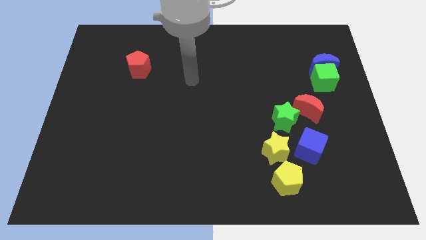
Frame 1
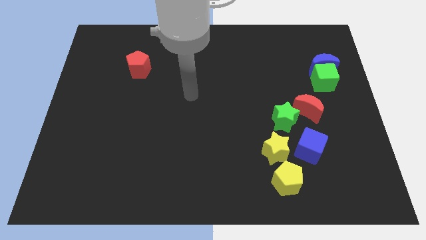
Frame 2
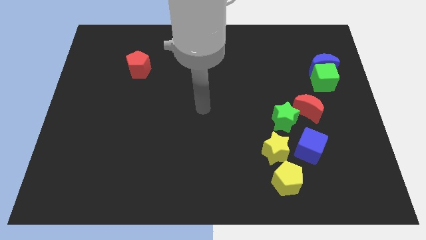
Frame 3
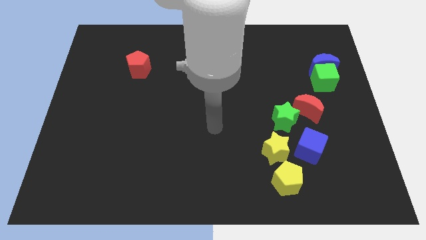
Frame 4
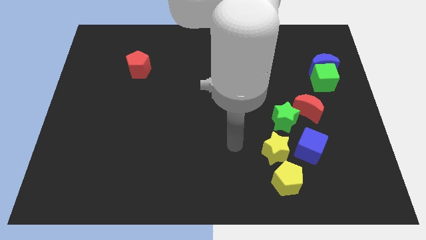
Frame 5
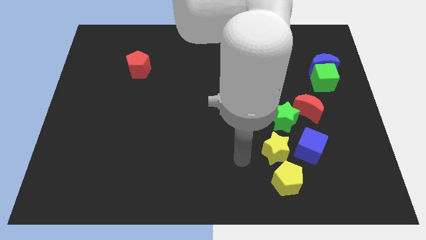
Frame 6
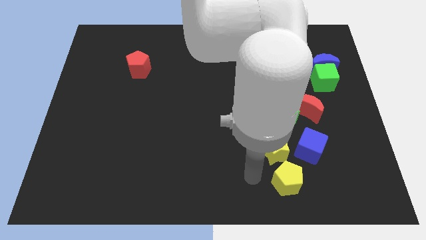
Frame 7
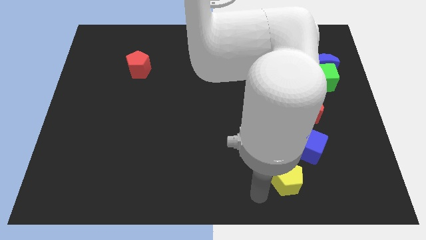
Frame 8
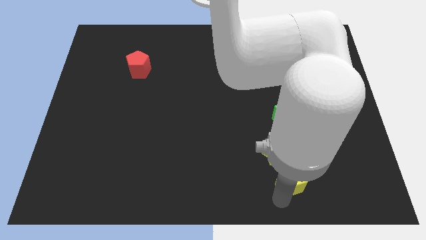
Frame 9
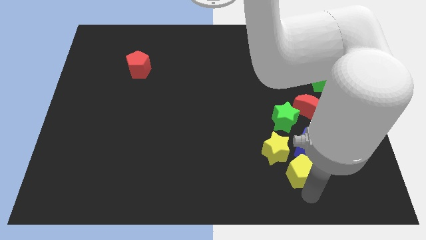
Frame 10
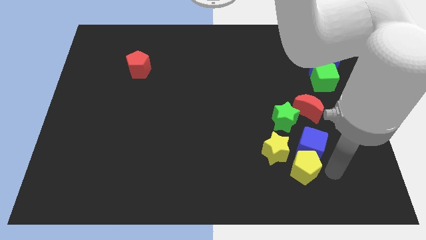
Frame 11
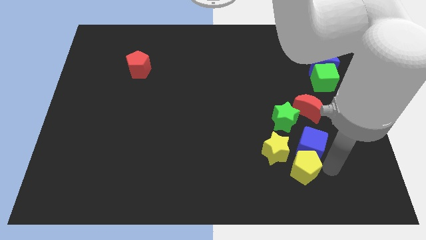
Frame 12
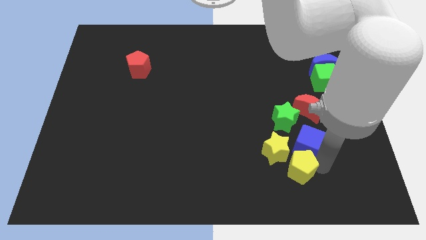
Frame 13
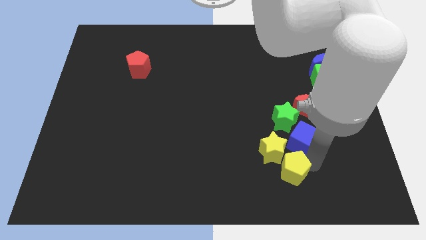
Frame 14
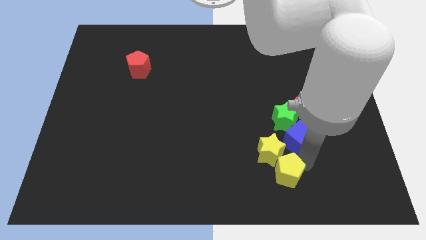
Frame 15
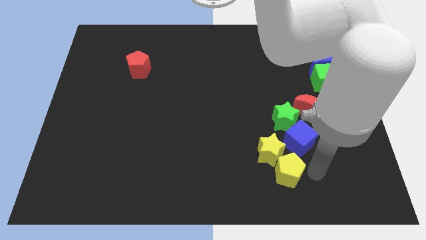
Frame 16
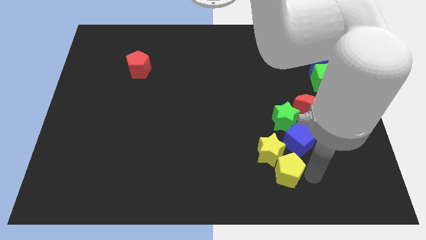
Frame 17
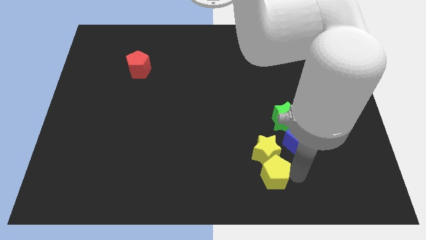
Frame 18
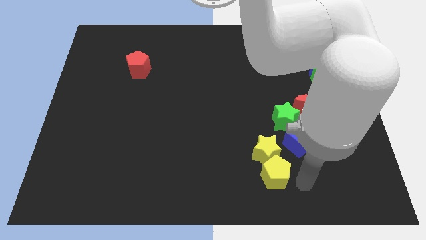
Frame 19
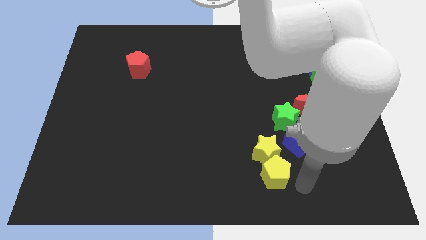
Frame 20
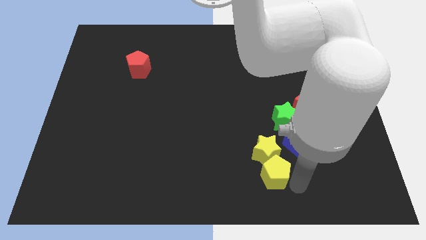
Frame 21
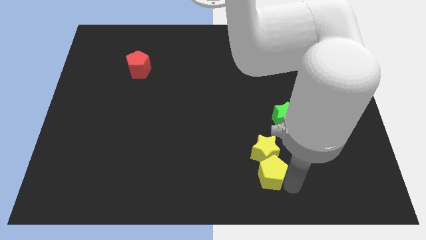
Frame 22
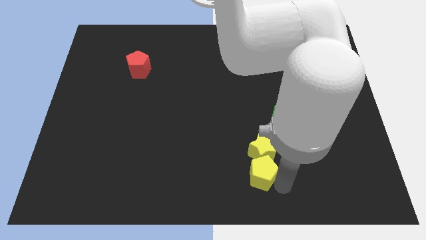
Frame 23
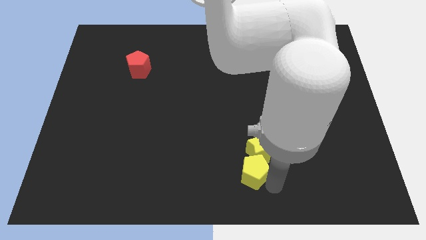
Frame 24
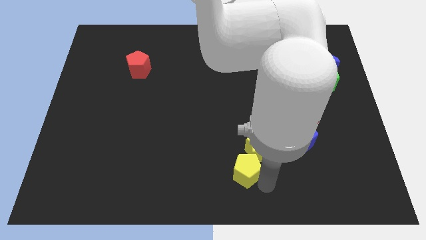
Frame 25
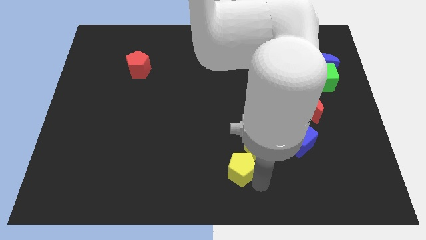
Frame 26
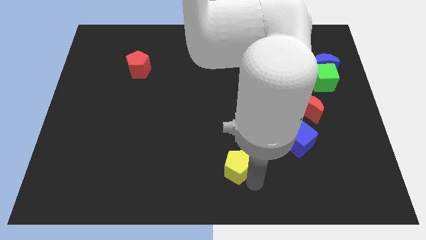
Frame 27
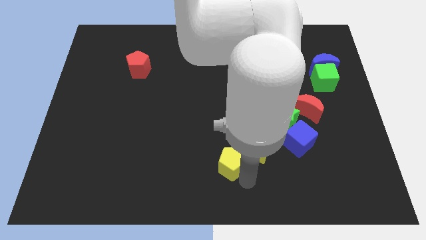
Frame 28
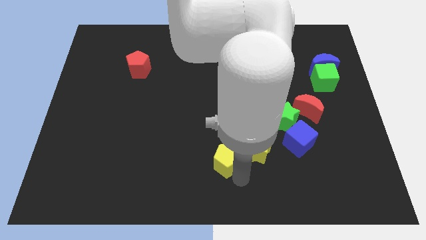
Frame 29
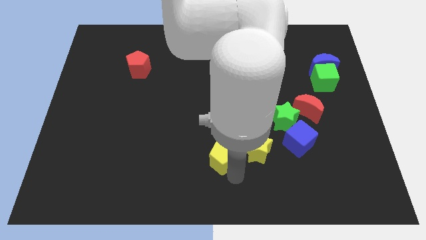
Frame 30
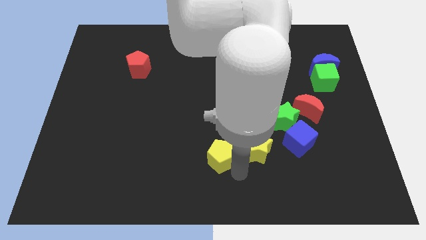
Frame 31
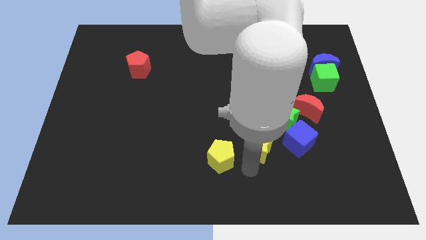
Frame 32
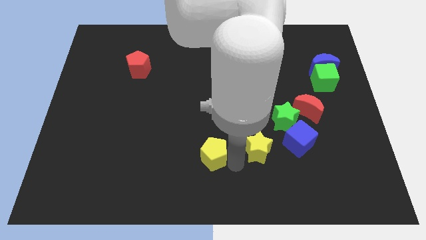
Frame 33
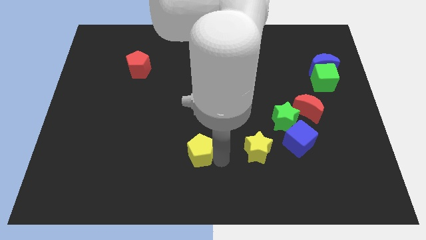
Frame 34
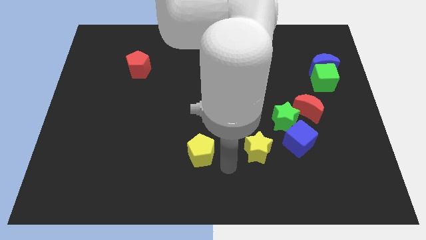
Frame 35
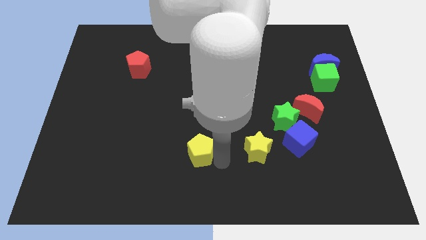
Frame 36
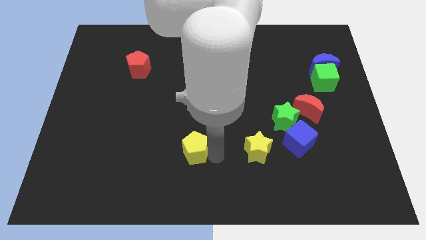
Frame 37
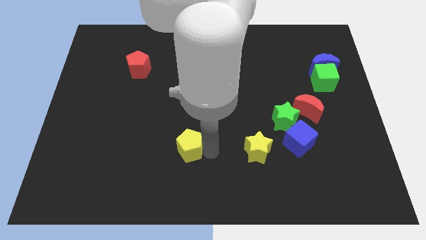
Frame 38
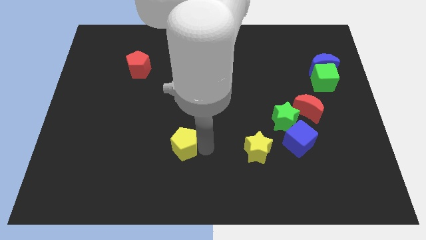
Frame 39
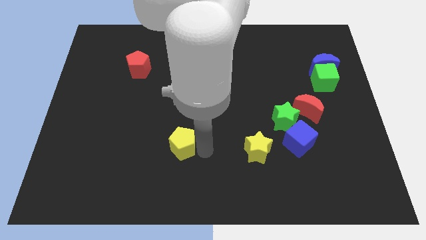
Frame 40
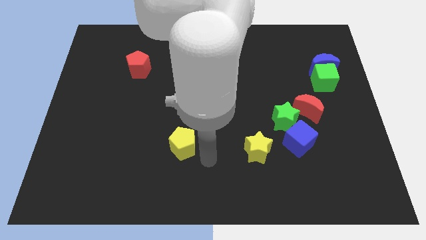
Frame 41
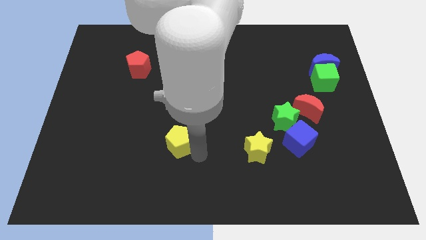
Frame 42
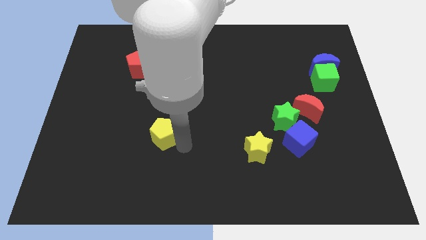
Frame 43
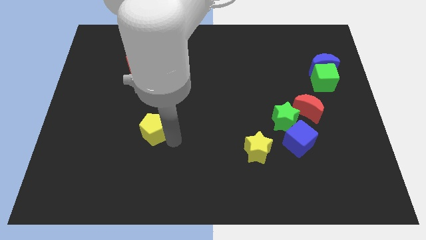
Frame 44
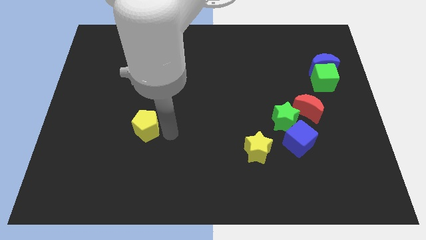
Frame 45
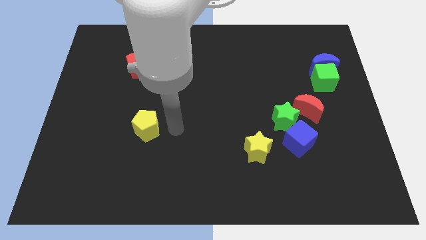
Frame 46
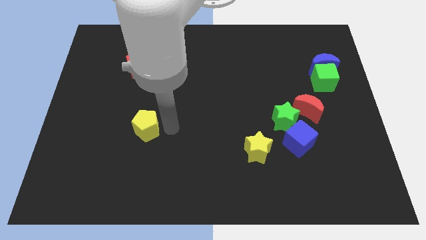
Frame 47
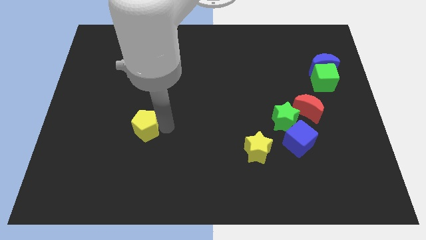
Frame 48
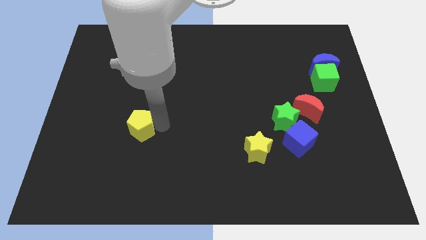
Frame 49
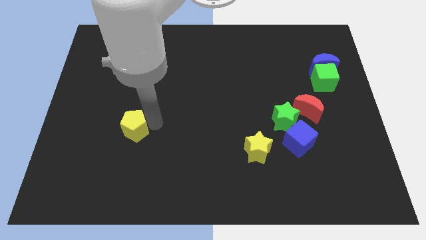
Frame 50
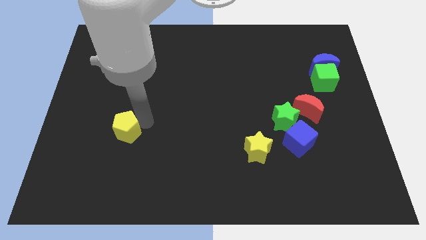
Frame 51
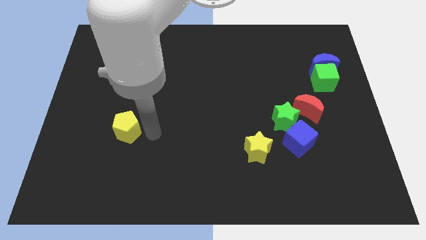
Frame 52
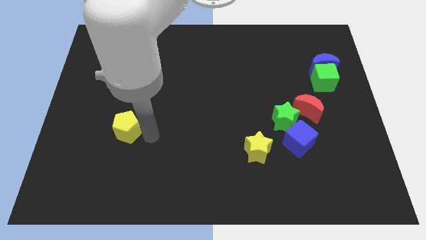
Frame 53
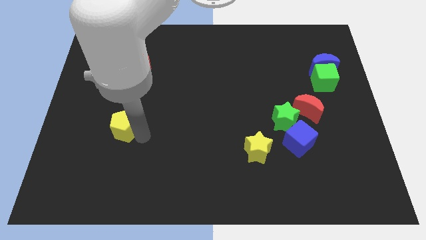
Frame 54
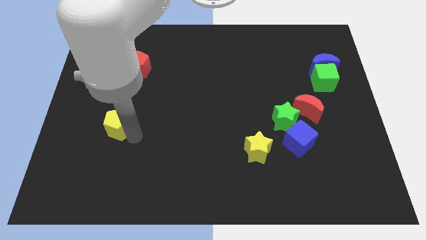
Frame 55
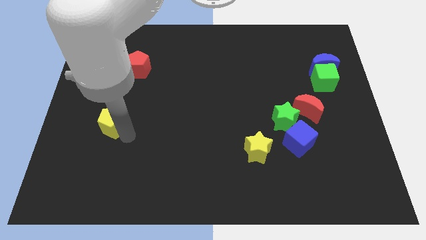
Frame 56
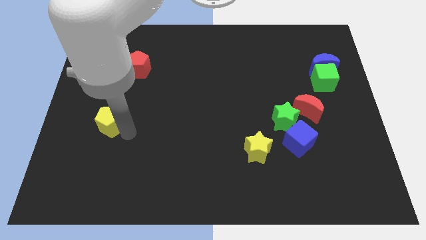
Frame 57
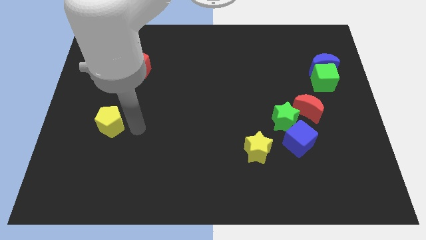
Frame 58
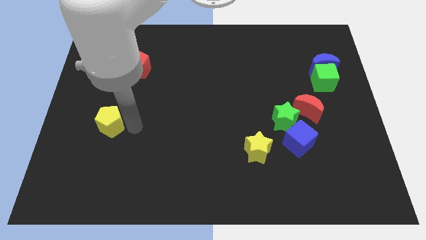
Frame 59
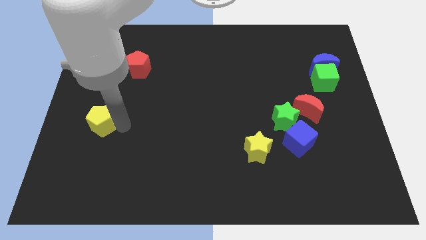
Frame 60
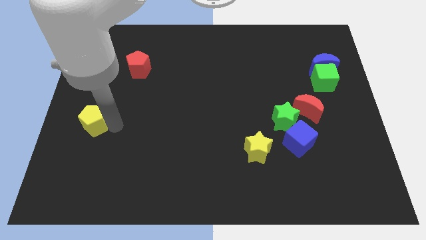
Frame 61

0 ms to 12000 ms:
push the yellow pentagon to the left side of the board

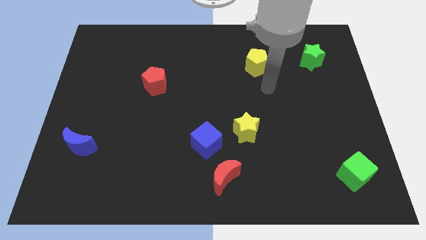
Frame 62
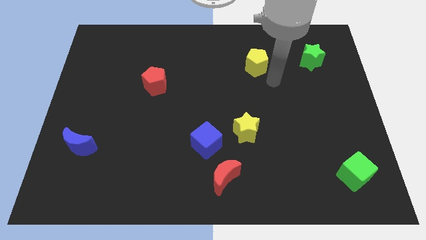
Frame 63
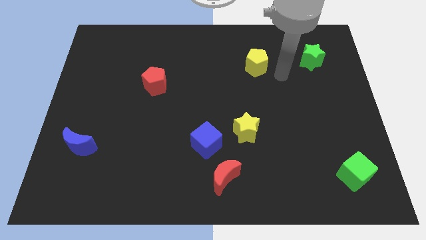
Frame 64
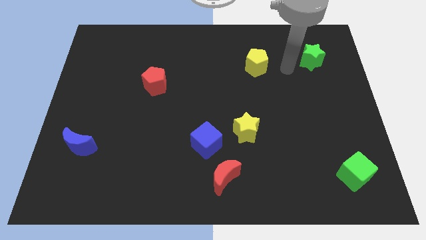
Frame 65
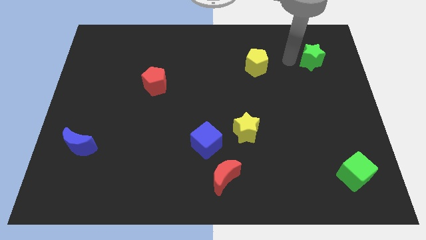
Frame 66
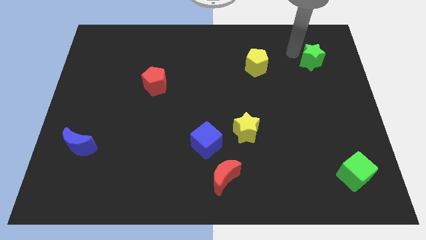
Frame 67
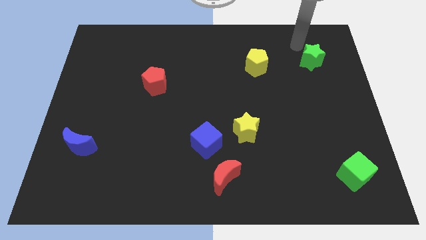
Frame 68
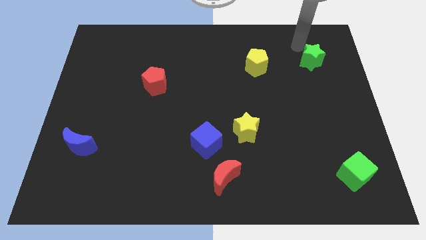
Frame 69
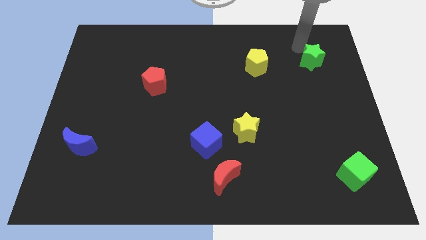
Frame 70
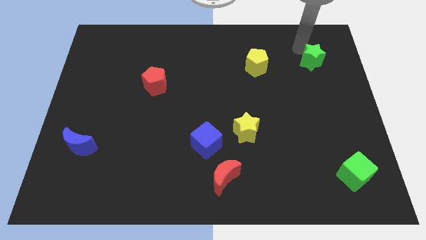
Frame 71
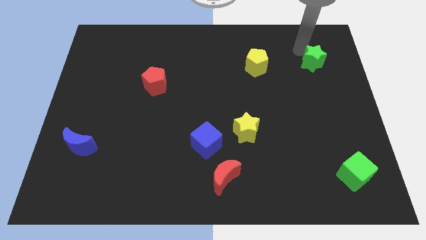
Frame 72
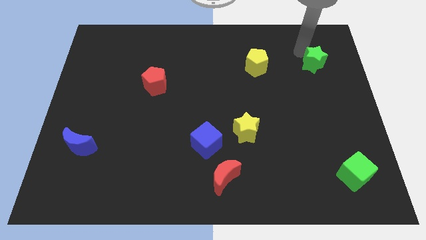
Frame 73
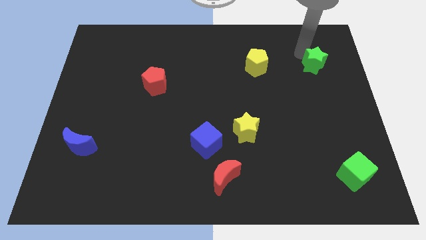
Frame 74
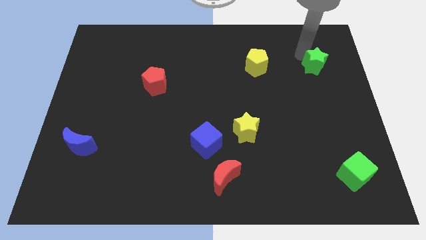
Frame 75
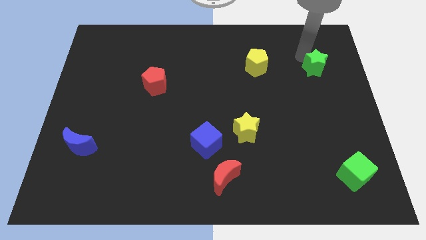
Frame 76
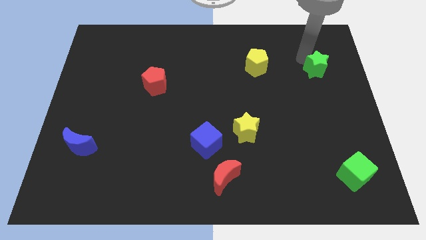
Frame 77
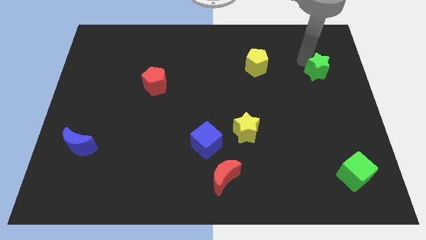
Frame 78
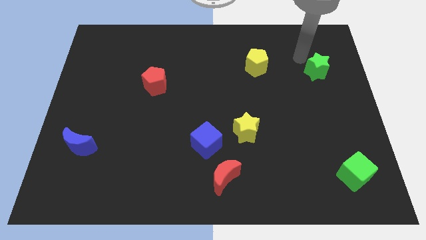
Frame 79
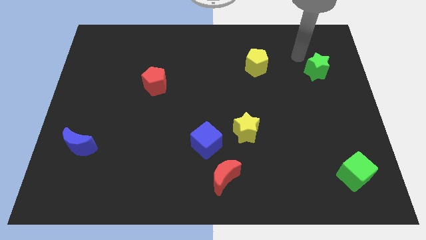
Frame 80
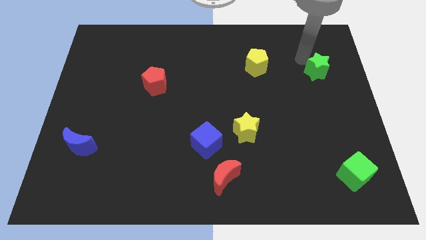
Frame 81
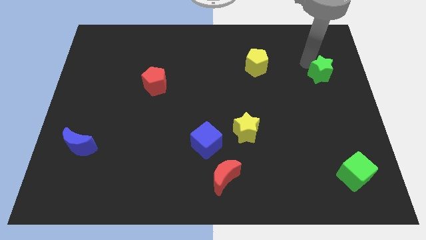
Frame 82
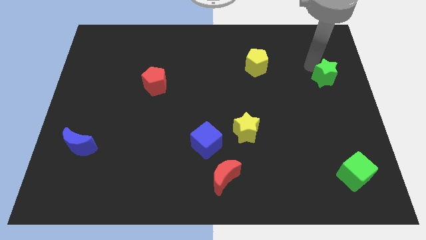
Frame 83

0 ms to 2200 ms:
slide the green star to the right side

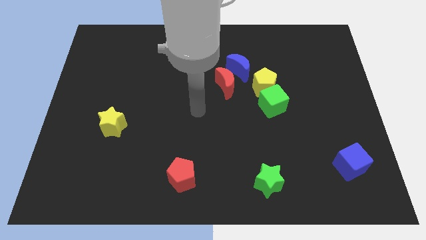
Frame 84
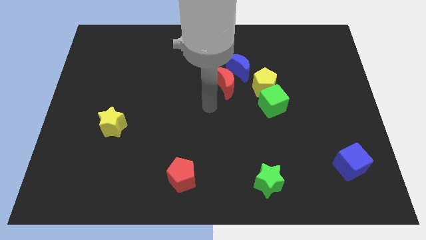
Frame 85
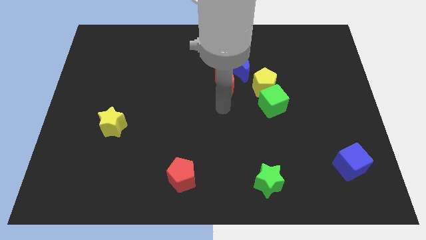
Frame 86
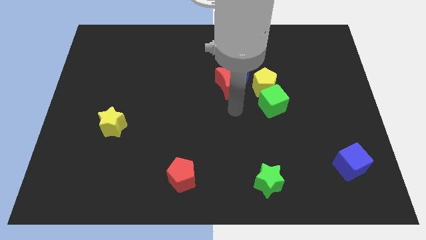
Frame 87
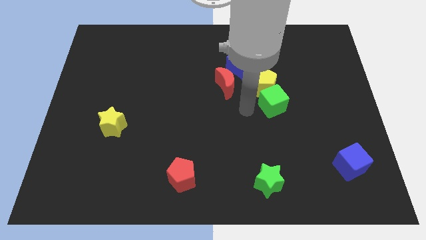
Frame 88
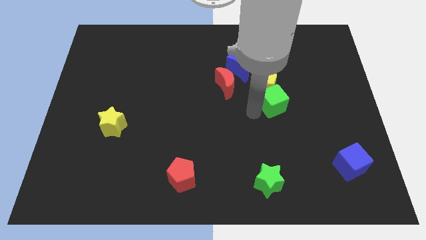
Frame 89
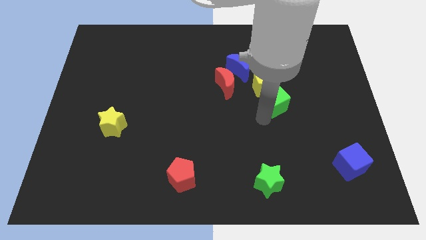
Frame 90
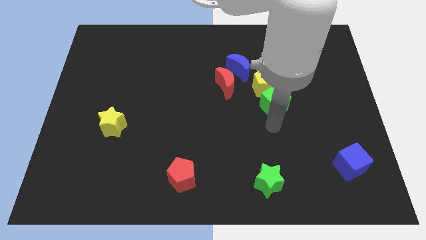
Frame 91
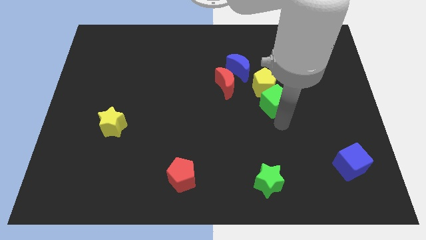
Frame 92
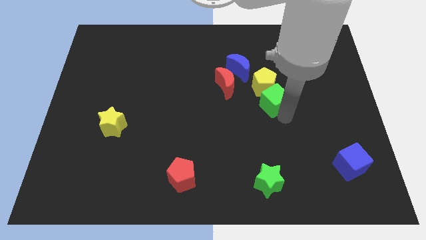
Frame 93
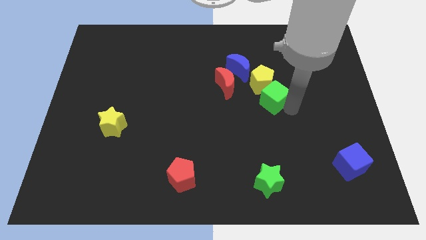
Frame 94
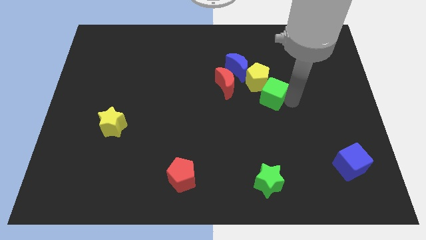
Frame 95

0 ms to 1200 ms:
push the yellow pentagon to the middle of the board
